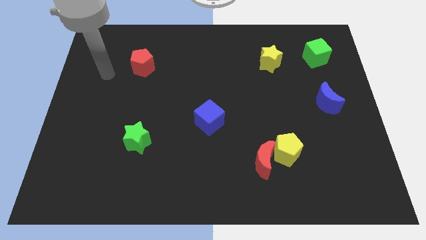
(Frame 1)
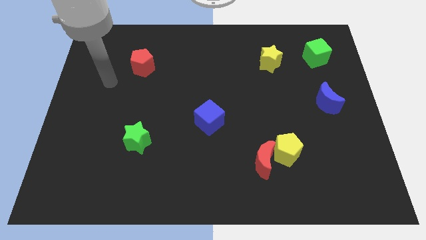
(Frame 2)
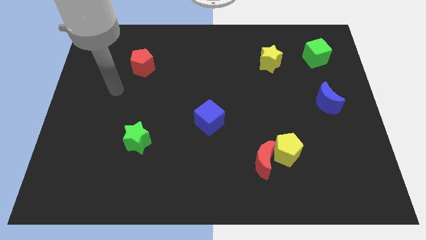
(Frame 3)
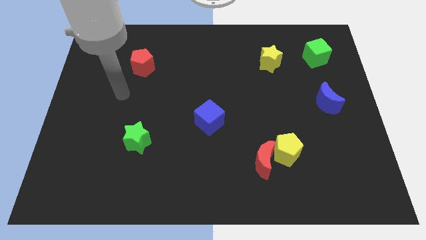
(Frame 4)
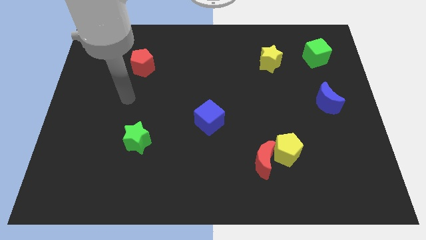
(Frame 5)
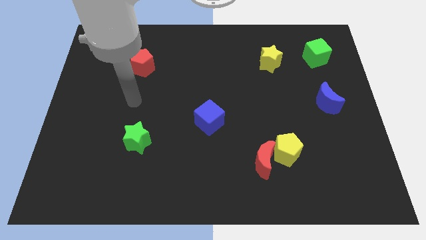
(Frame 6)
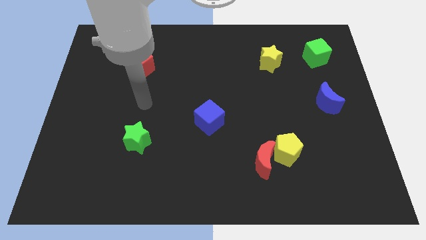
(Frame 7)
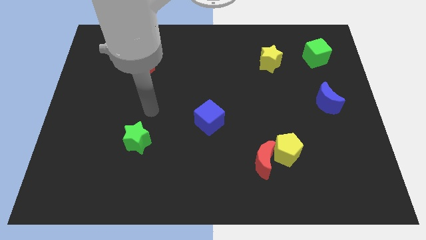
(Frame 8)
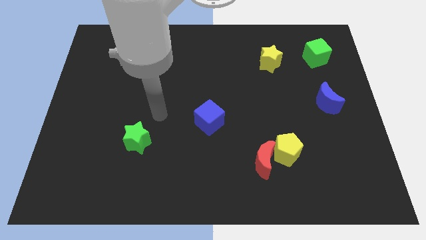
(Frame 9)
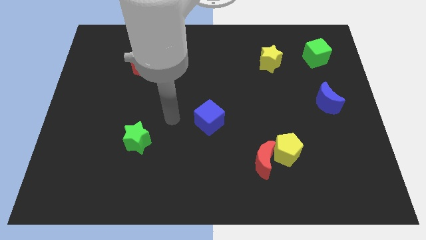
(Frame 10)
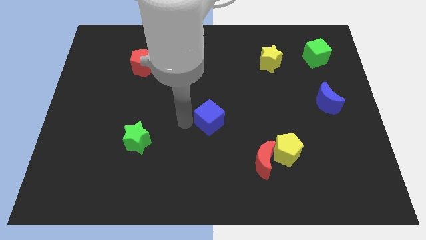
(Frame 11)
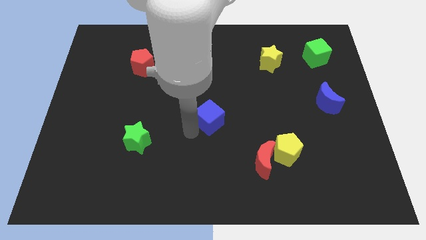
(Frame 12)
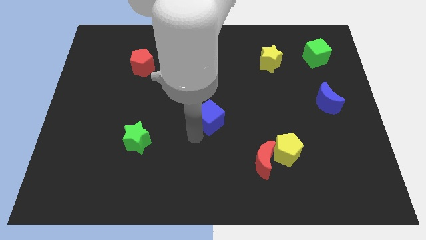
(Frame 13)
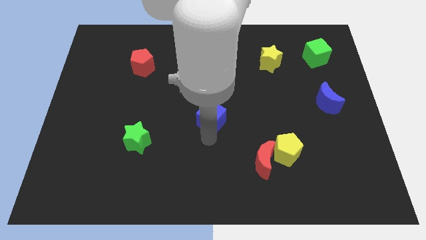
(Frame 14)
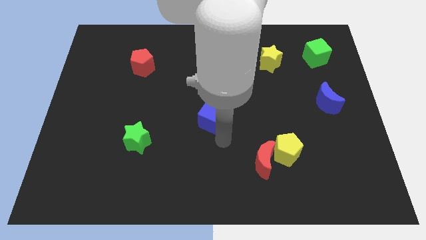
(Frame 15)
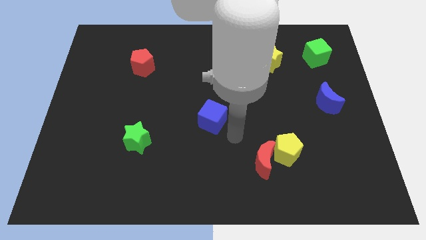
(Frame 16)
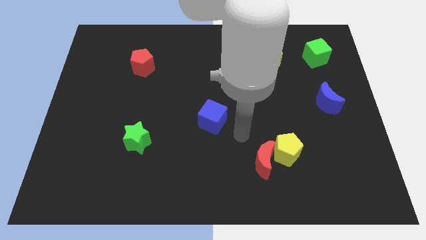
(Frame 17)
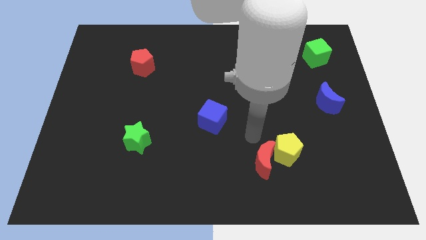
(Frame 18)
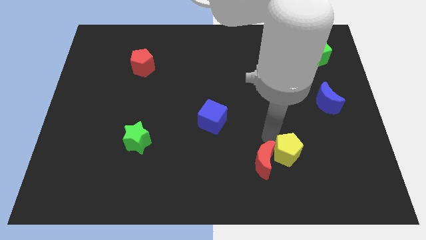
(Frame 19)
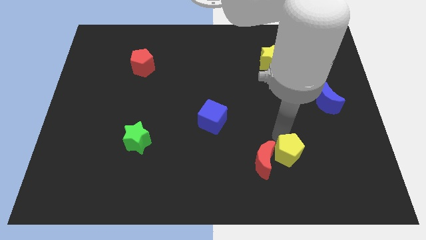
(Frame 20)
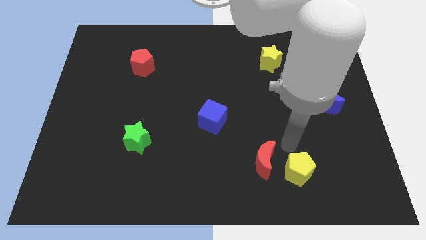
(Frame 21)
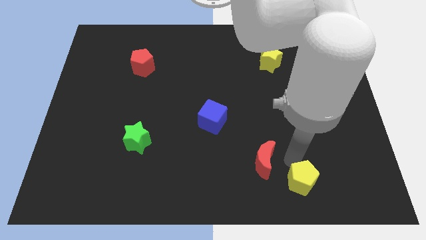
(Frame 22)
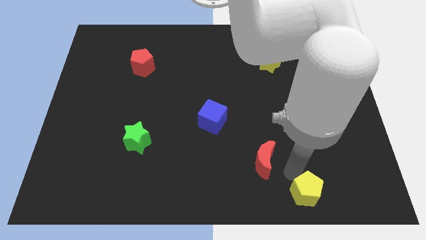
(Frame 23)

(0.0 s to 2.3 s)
separate the red moon from the yellow pentagon

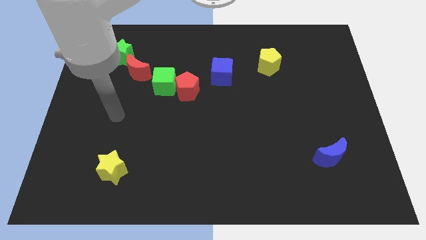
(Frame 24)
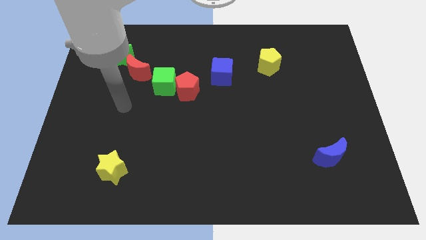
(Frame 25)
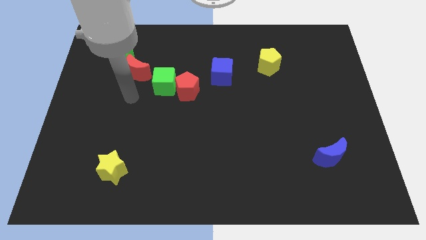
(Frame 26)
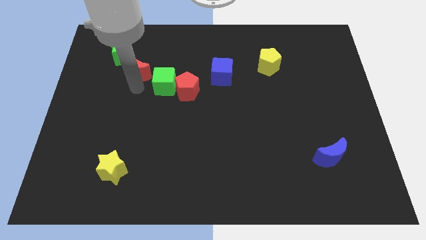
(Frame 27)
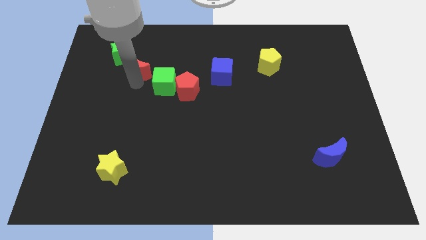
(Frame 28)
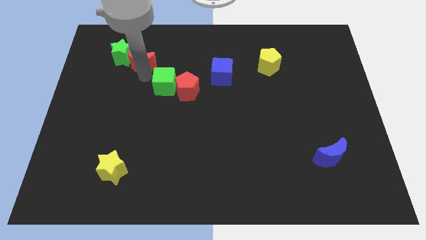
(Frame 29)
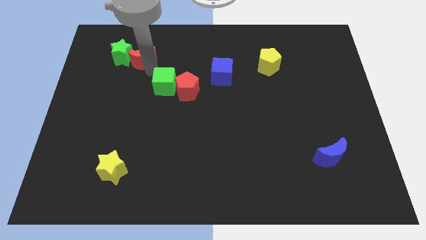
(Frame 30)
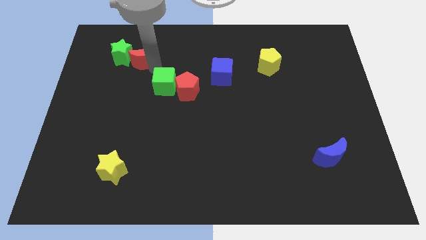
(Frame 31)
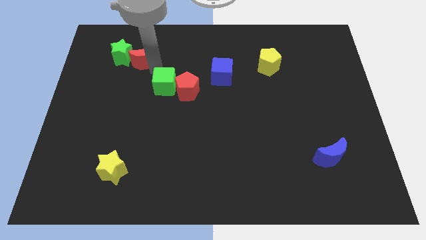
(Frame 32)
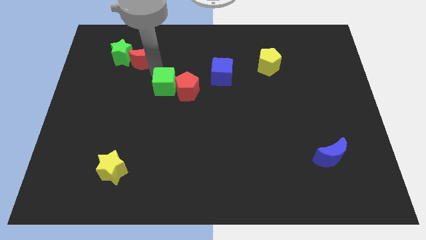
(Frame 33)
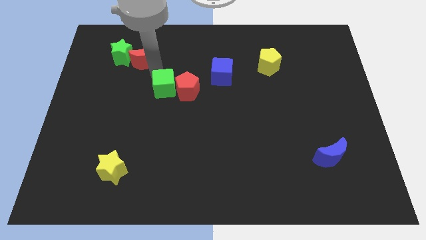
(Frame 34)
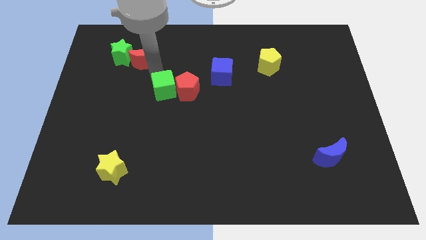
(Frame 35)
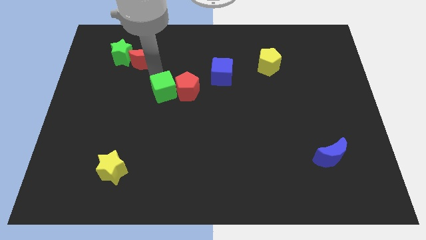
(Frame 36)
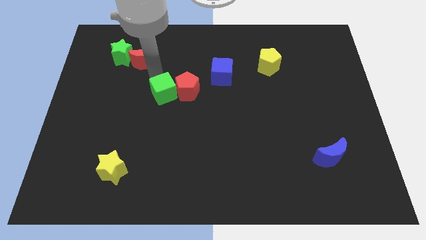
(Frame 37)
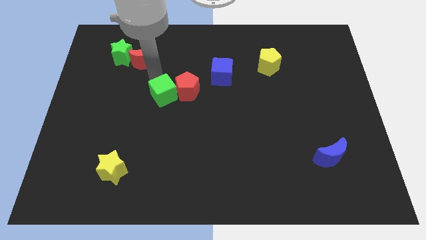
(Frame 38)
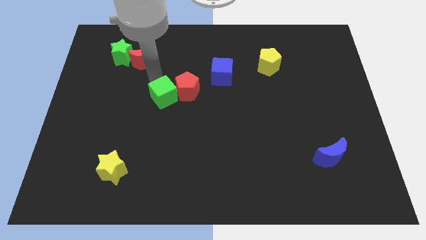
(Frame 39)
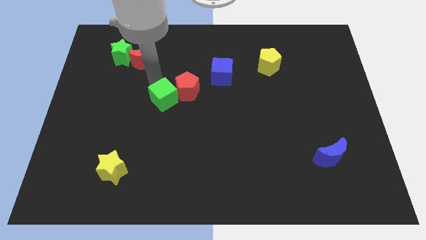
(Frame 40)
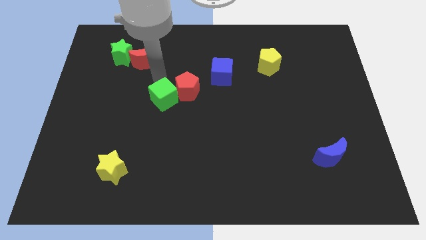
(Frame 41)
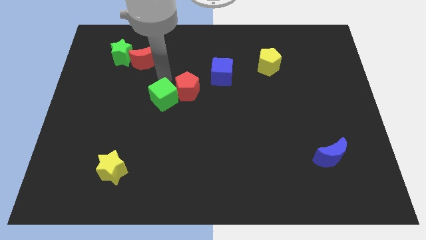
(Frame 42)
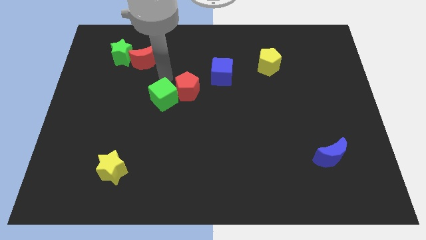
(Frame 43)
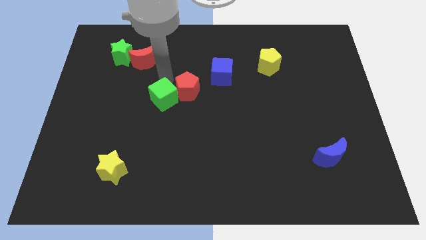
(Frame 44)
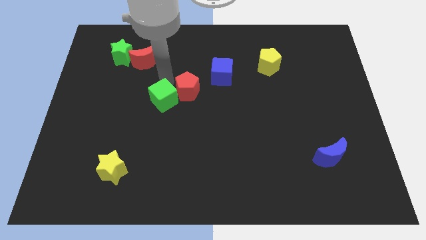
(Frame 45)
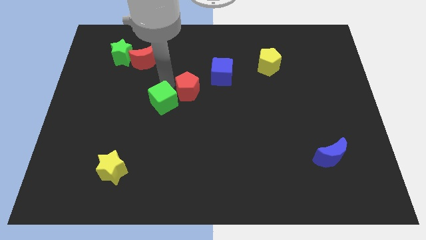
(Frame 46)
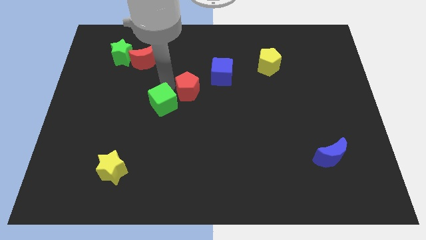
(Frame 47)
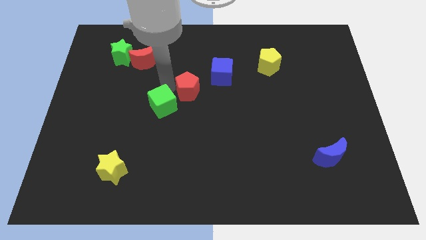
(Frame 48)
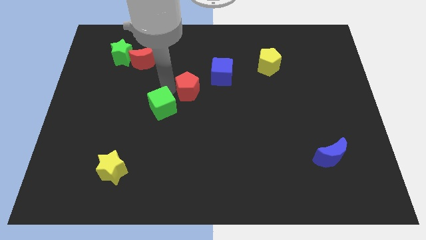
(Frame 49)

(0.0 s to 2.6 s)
pull the green cube apart from the red pentagon and red moon

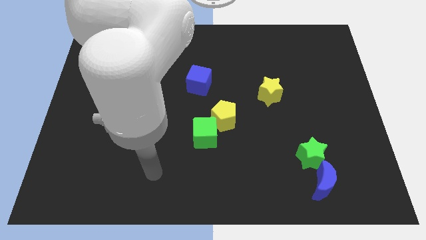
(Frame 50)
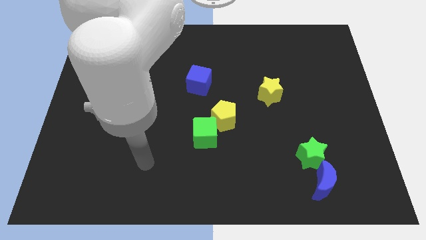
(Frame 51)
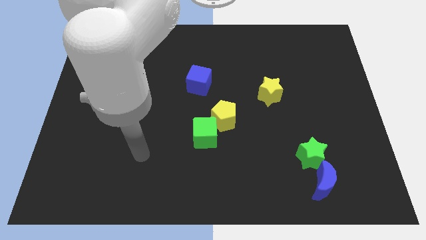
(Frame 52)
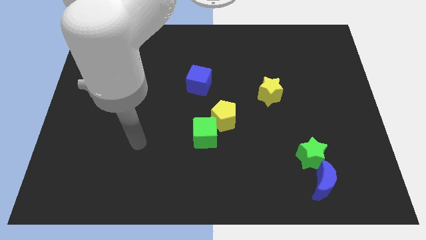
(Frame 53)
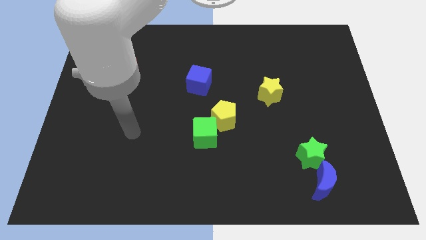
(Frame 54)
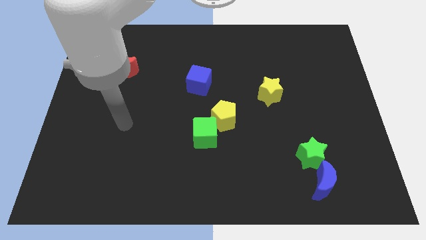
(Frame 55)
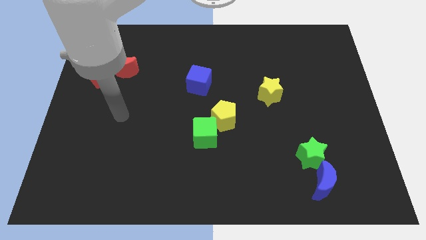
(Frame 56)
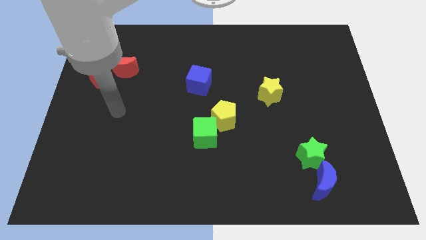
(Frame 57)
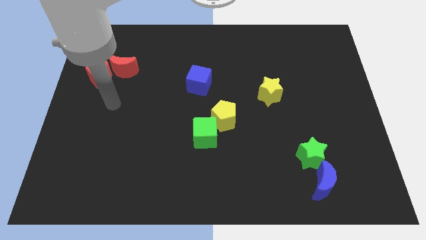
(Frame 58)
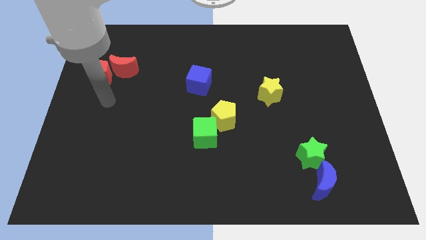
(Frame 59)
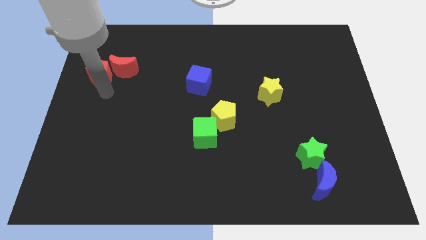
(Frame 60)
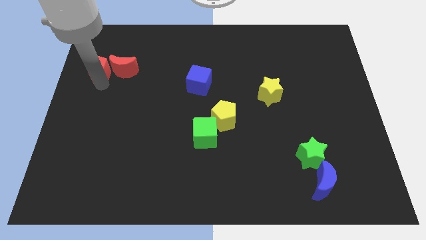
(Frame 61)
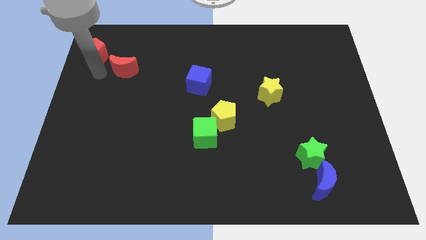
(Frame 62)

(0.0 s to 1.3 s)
separate the red moon from the red pentagon

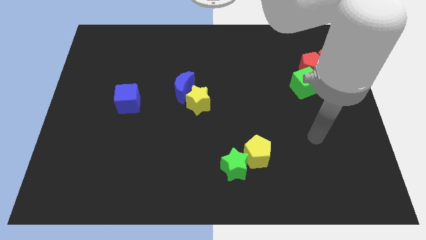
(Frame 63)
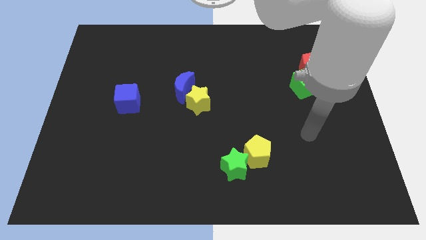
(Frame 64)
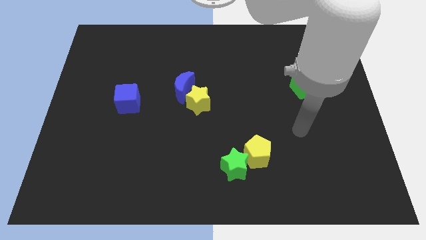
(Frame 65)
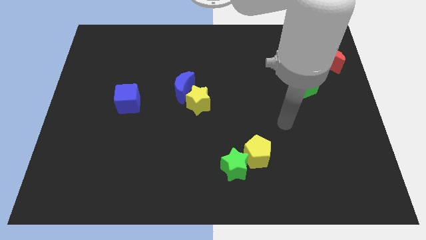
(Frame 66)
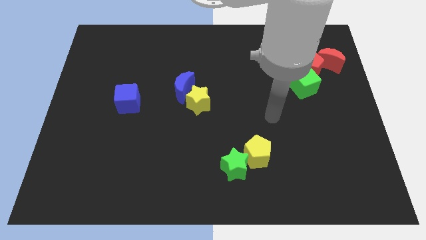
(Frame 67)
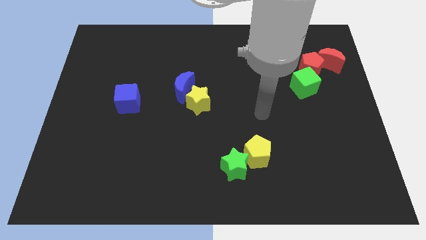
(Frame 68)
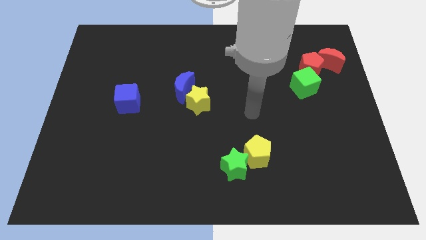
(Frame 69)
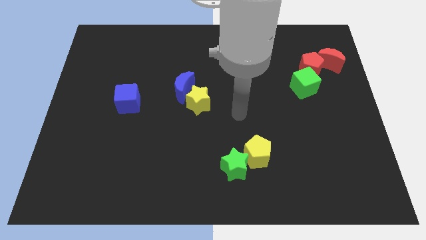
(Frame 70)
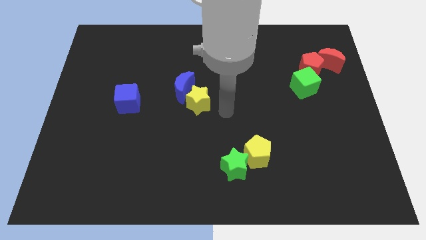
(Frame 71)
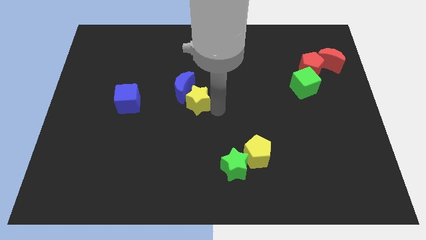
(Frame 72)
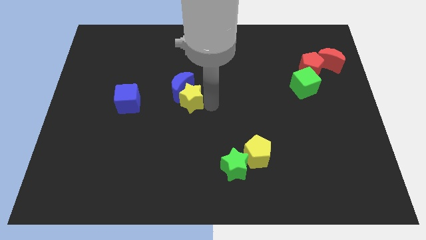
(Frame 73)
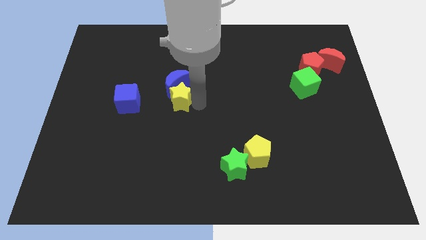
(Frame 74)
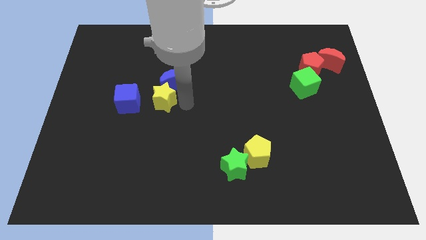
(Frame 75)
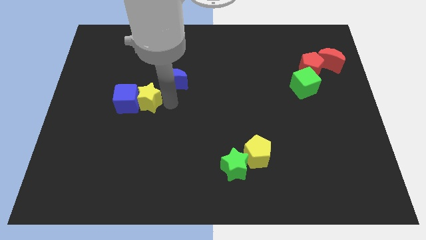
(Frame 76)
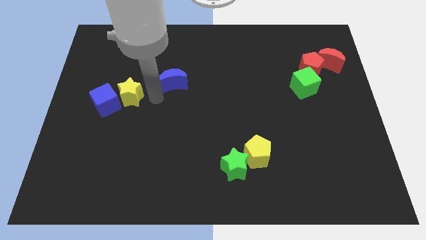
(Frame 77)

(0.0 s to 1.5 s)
move the blue moon away from the yellow star

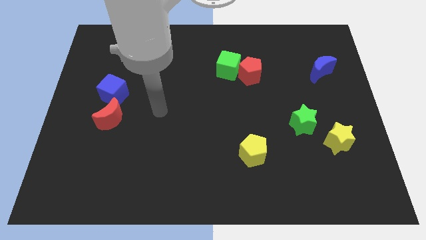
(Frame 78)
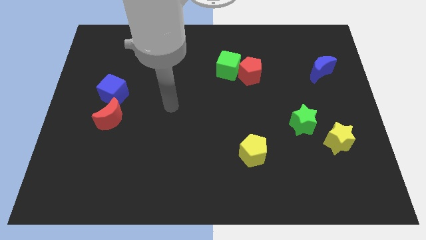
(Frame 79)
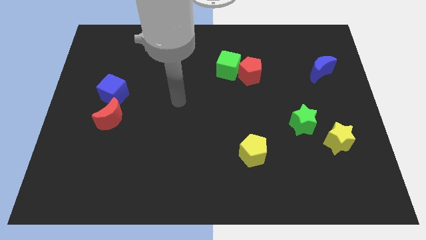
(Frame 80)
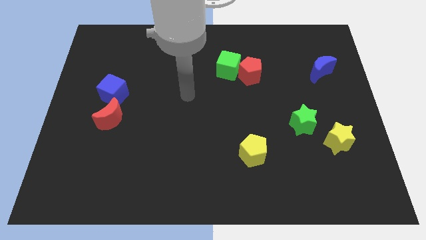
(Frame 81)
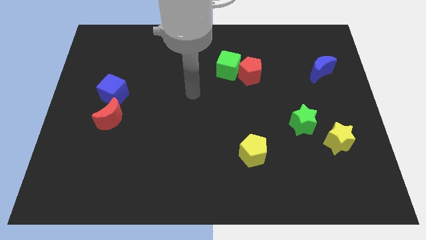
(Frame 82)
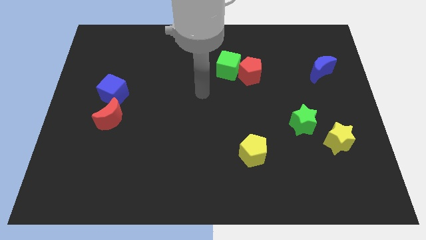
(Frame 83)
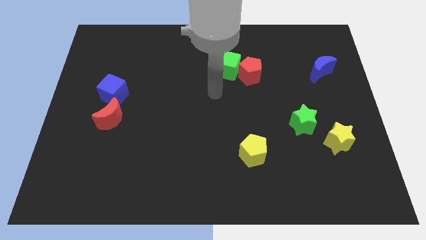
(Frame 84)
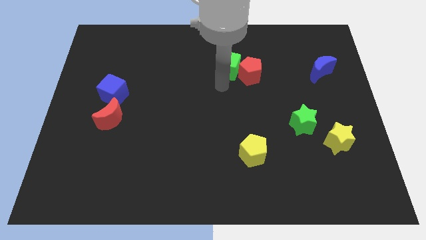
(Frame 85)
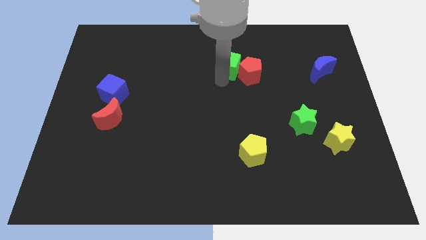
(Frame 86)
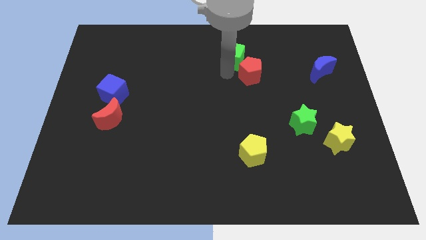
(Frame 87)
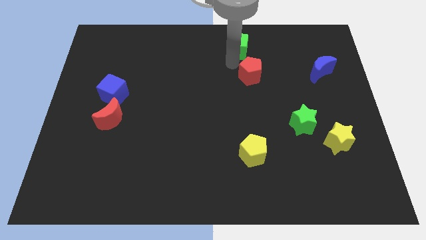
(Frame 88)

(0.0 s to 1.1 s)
move the red pentagon away from the green cube

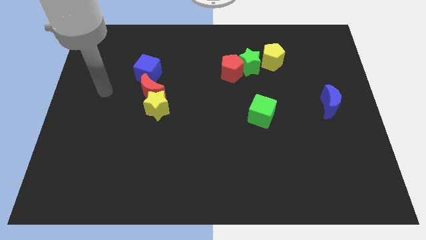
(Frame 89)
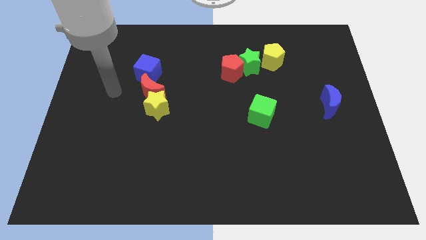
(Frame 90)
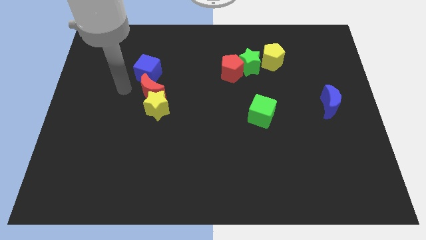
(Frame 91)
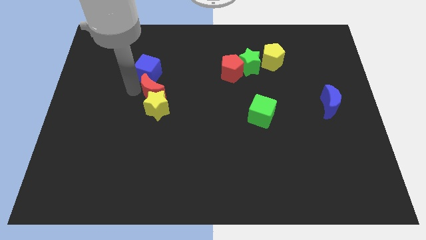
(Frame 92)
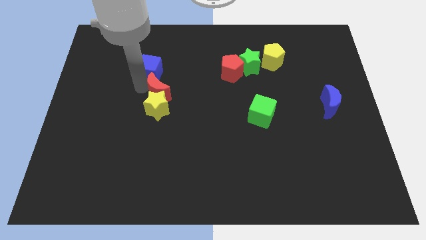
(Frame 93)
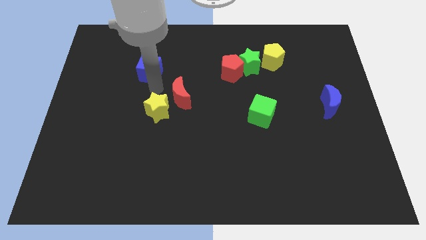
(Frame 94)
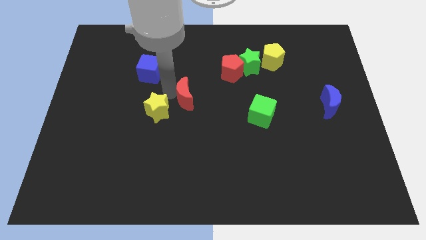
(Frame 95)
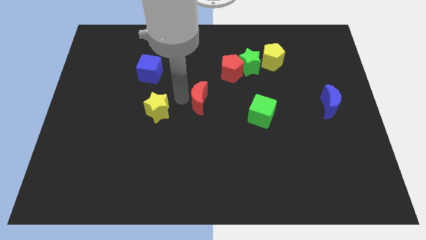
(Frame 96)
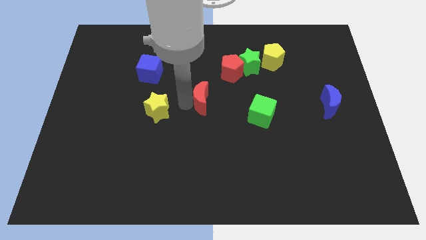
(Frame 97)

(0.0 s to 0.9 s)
move the yellow star away from the red moon
